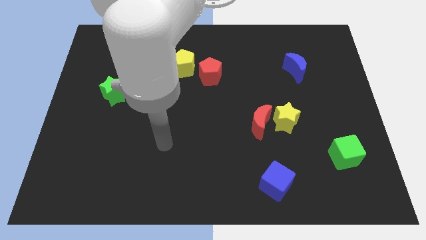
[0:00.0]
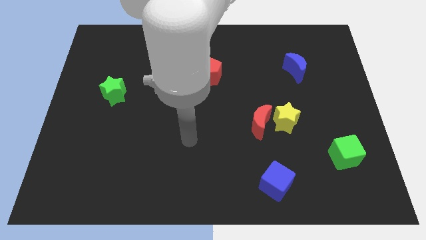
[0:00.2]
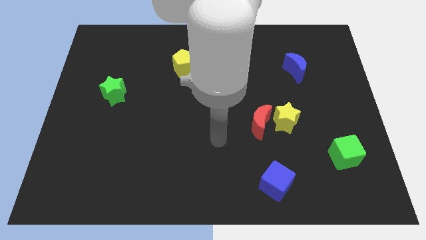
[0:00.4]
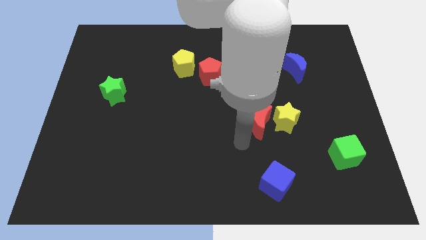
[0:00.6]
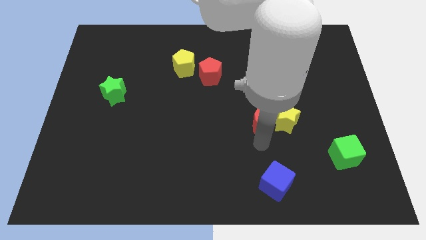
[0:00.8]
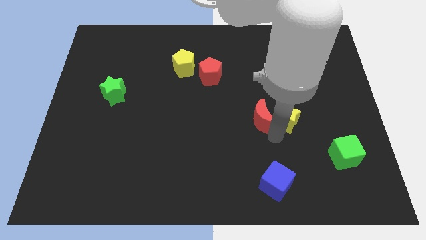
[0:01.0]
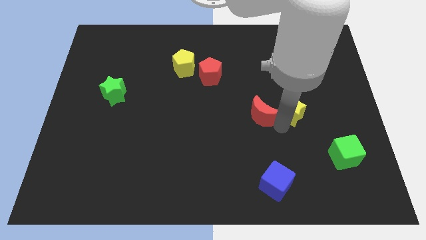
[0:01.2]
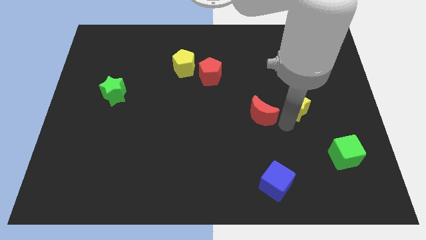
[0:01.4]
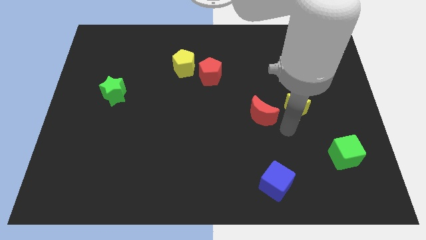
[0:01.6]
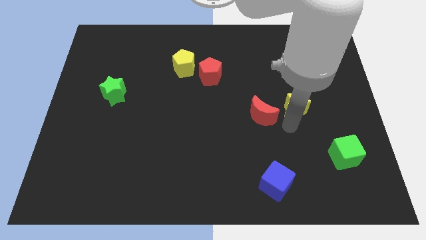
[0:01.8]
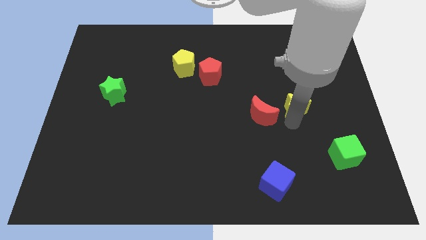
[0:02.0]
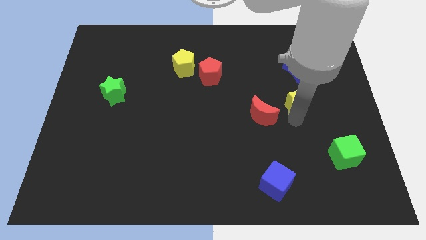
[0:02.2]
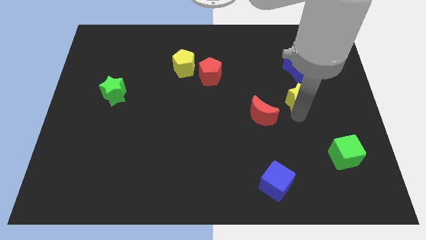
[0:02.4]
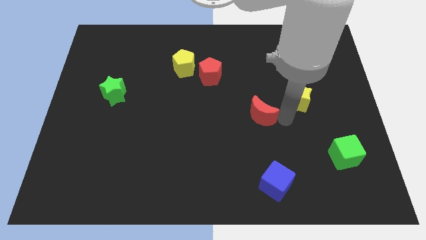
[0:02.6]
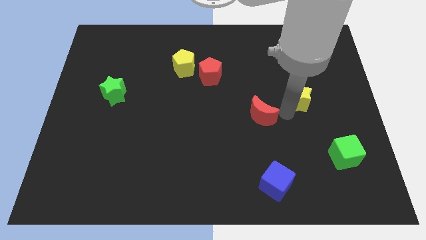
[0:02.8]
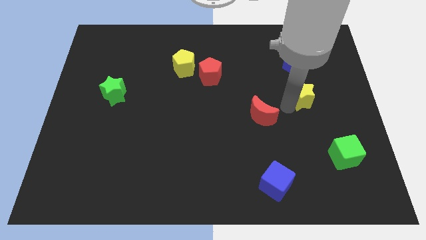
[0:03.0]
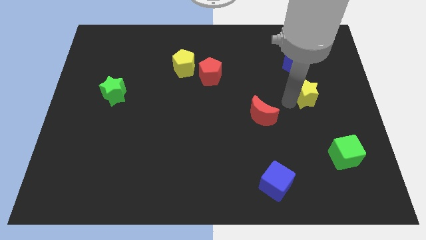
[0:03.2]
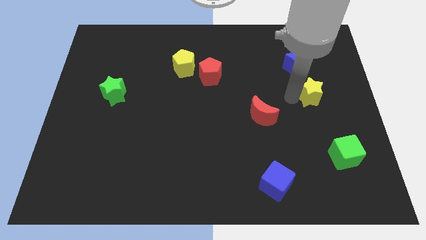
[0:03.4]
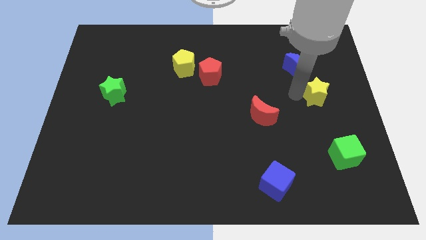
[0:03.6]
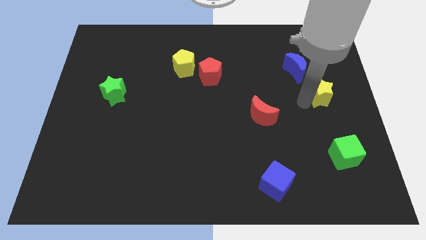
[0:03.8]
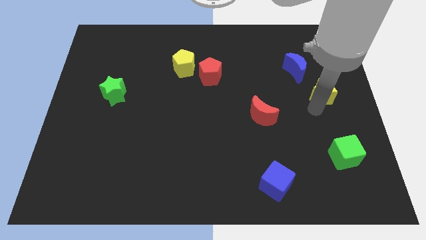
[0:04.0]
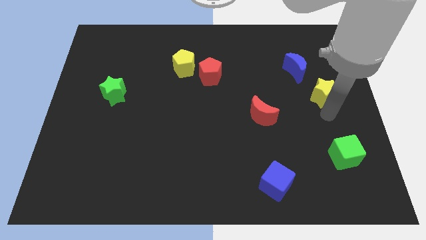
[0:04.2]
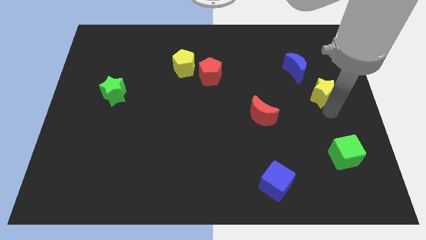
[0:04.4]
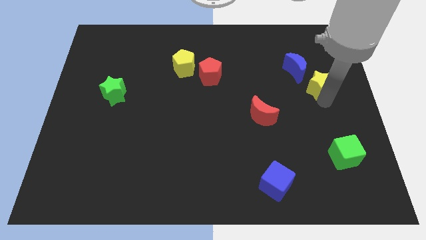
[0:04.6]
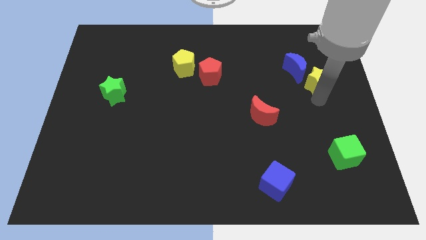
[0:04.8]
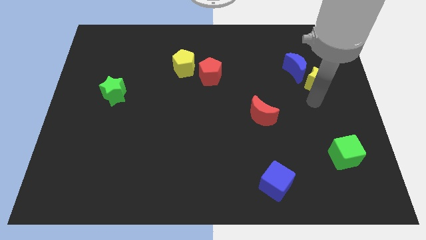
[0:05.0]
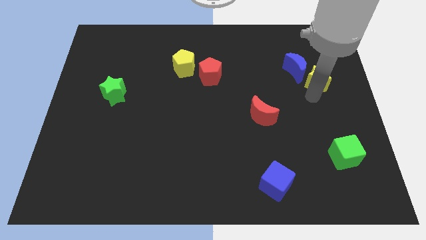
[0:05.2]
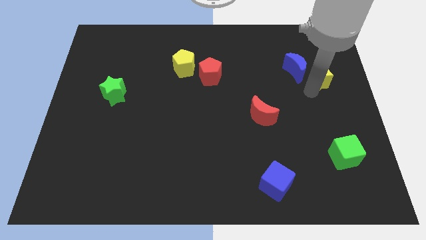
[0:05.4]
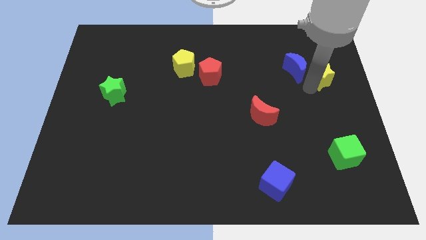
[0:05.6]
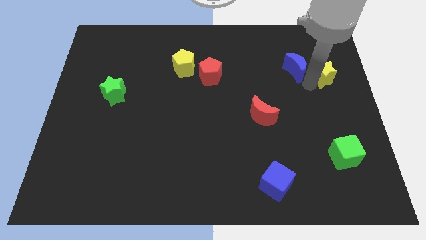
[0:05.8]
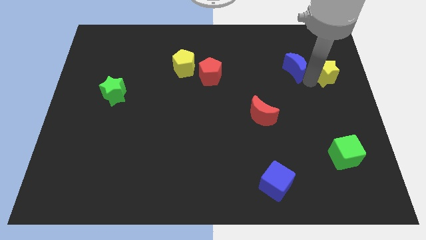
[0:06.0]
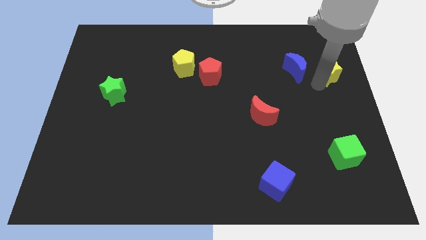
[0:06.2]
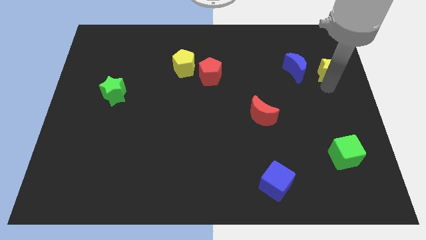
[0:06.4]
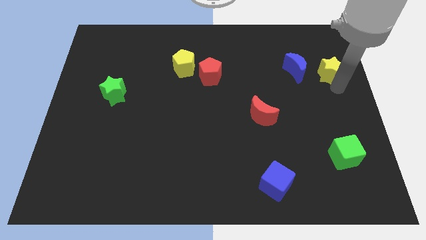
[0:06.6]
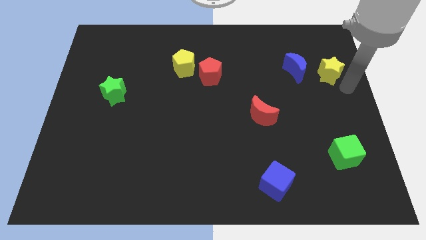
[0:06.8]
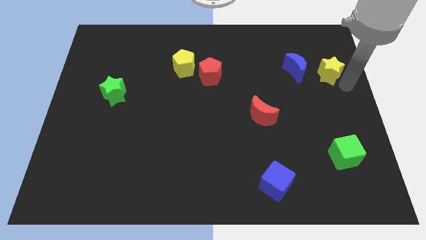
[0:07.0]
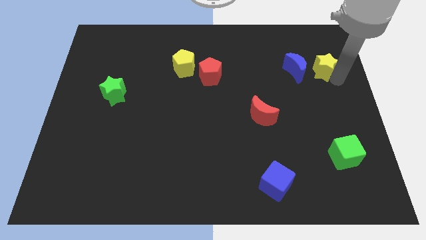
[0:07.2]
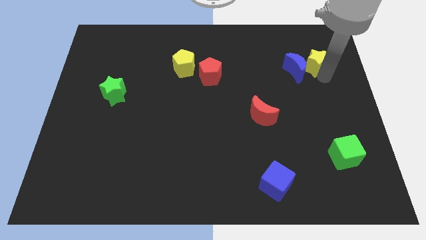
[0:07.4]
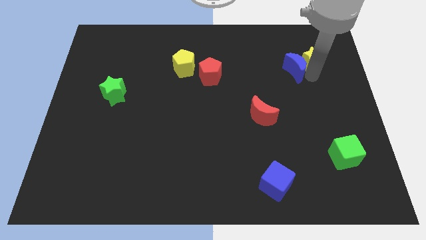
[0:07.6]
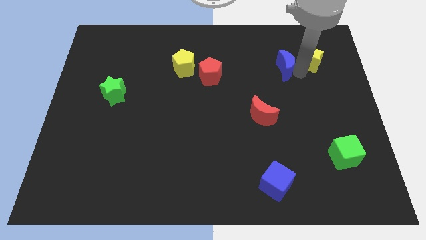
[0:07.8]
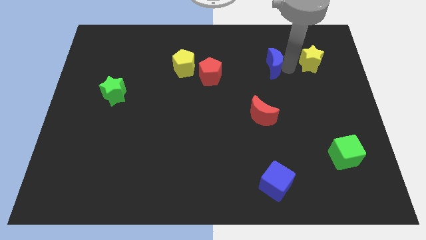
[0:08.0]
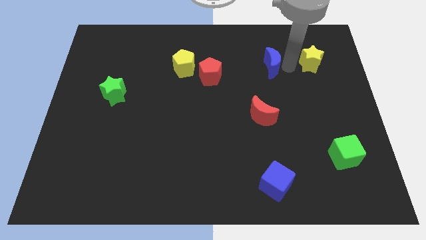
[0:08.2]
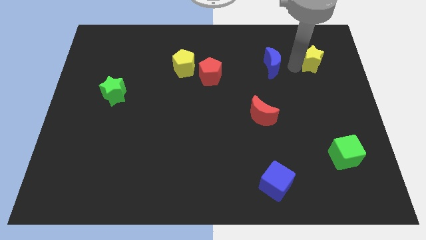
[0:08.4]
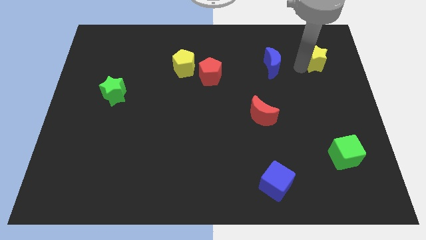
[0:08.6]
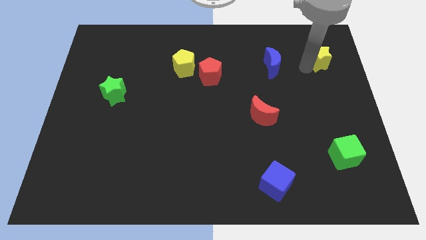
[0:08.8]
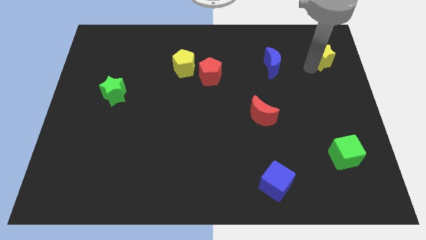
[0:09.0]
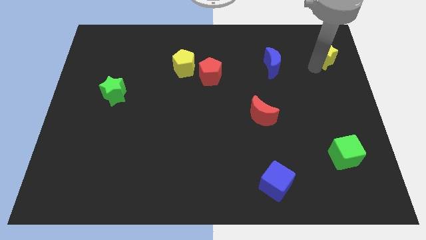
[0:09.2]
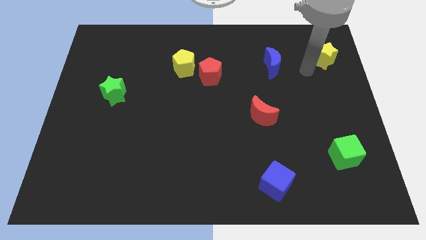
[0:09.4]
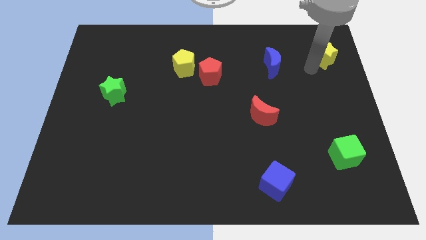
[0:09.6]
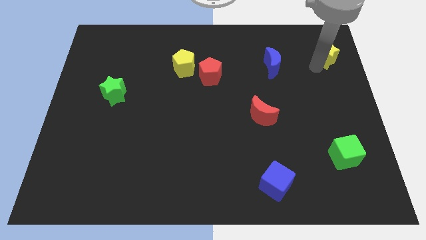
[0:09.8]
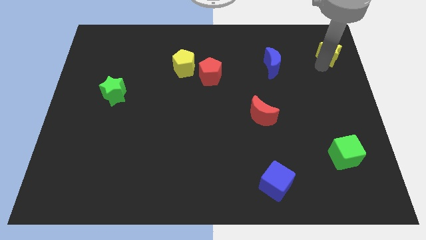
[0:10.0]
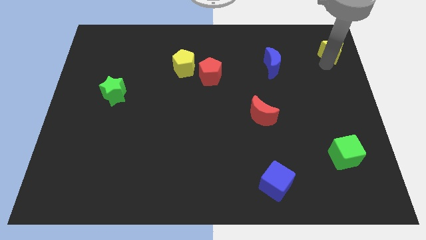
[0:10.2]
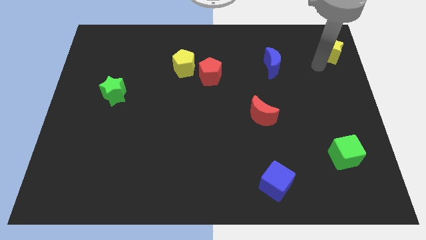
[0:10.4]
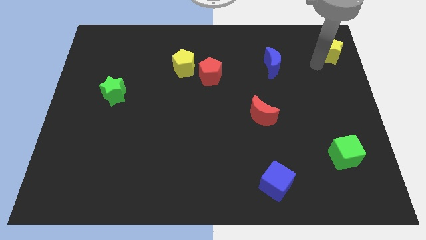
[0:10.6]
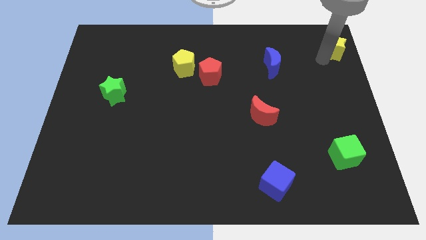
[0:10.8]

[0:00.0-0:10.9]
put the yellow star to the top right

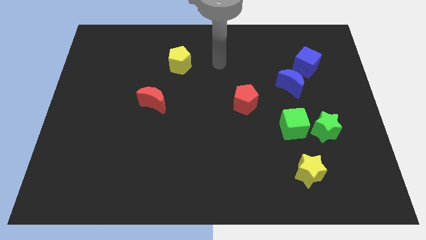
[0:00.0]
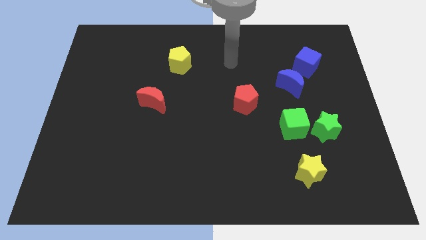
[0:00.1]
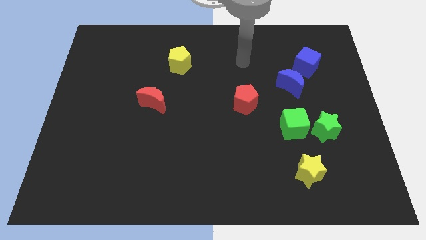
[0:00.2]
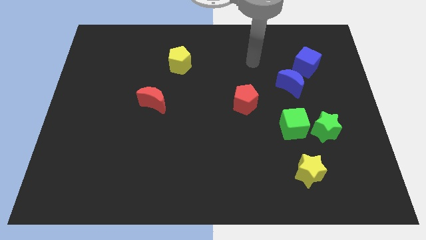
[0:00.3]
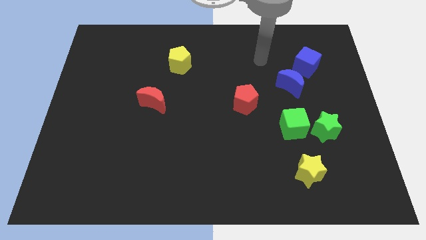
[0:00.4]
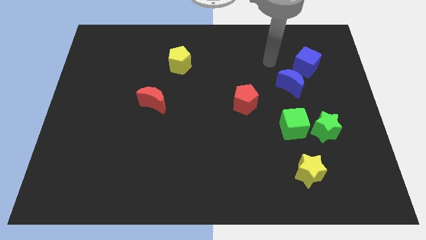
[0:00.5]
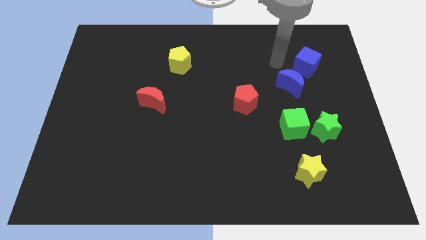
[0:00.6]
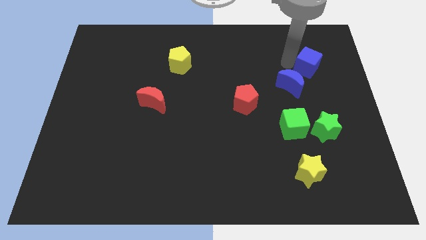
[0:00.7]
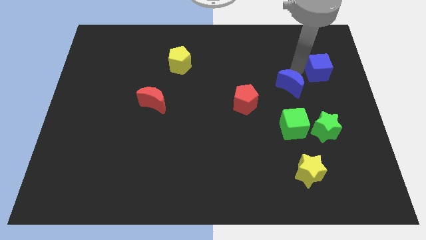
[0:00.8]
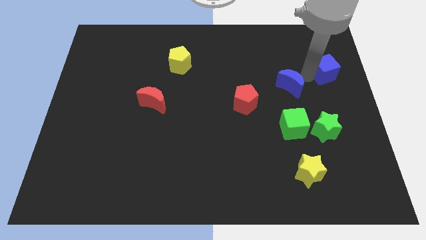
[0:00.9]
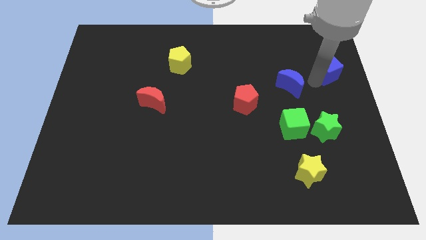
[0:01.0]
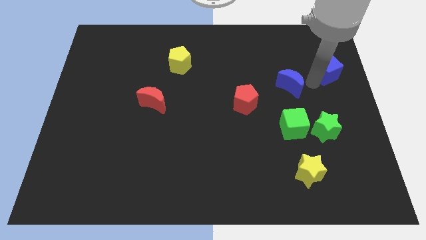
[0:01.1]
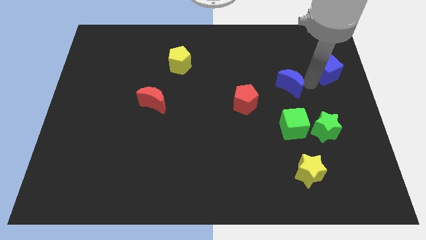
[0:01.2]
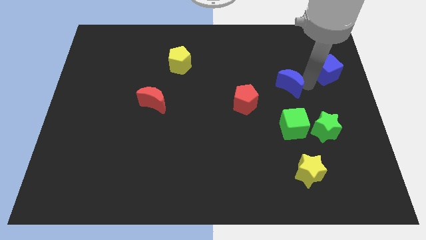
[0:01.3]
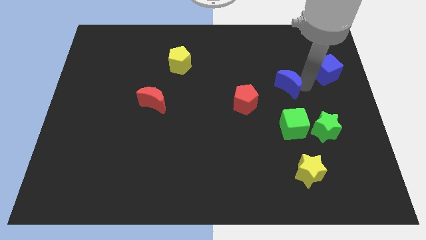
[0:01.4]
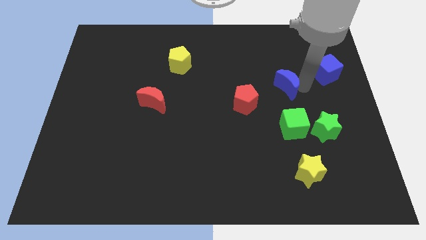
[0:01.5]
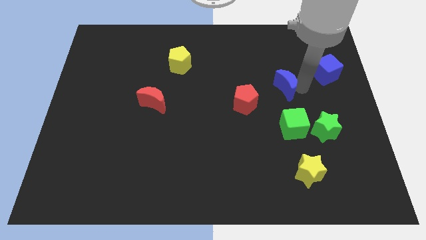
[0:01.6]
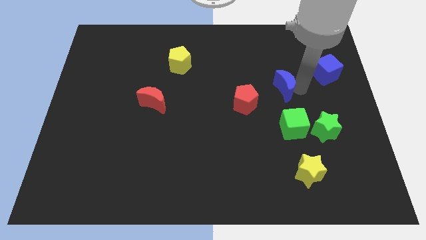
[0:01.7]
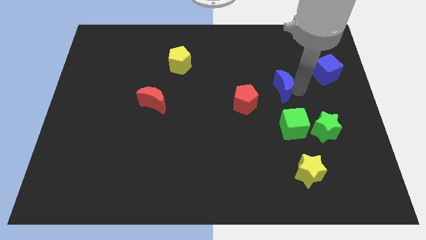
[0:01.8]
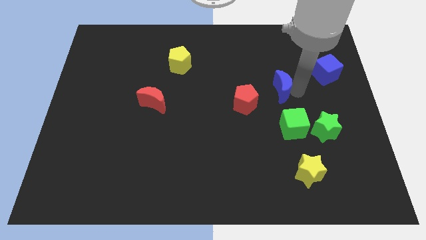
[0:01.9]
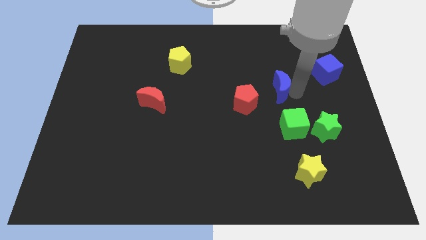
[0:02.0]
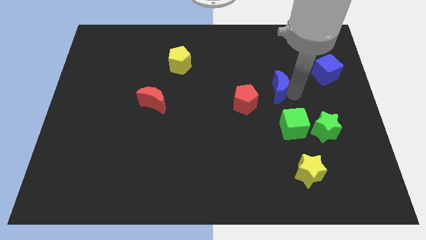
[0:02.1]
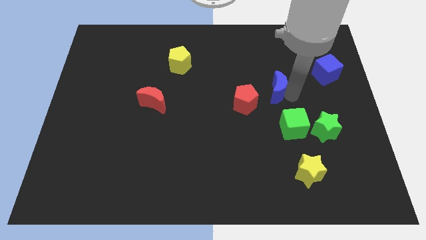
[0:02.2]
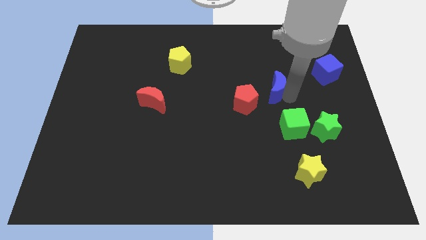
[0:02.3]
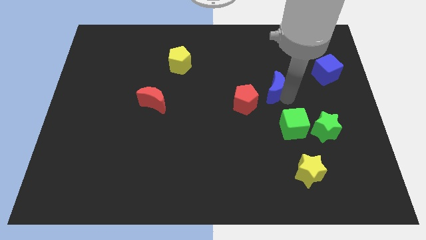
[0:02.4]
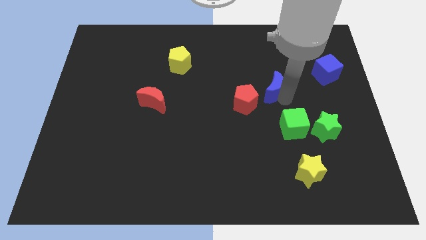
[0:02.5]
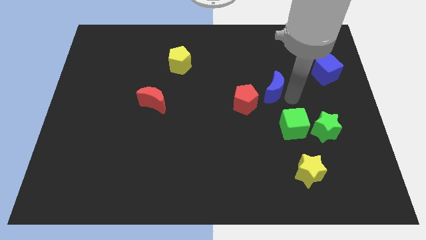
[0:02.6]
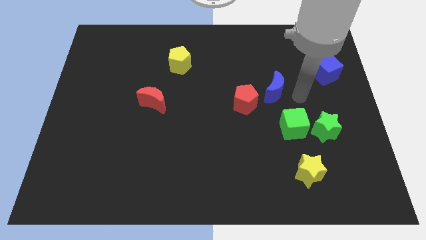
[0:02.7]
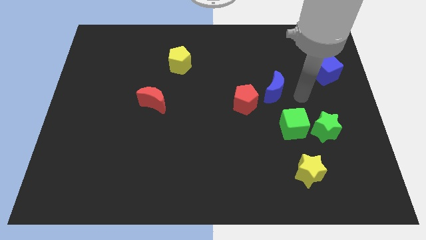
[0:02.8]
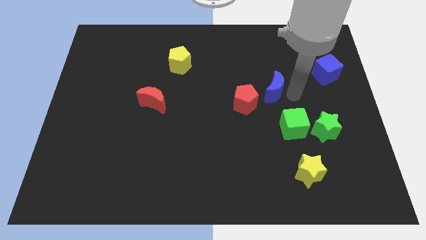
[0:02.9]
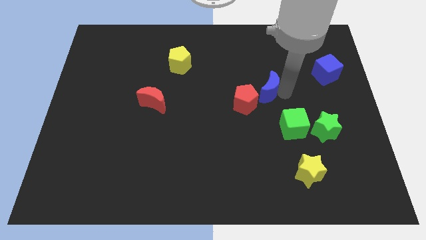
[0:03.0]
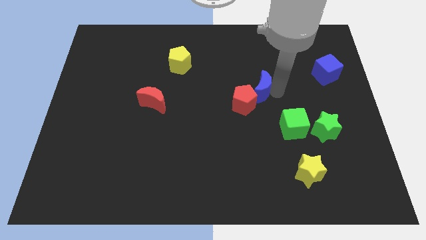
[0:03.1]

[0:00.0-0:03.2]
slide the blue moon to the center
